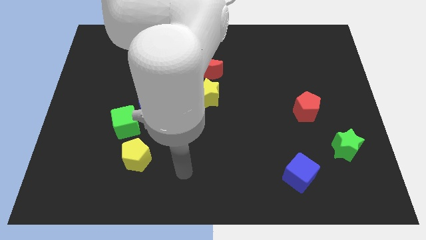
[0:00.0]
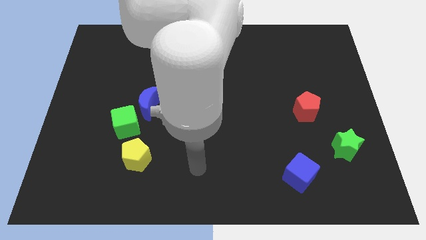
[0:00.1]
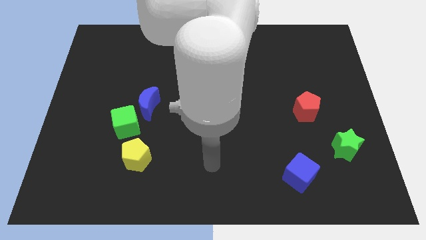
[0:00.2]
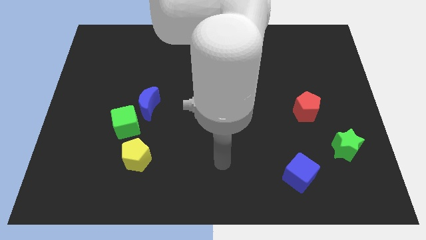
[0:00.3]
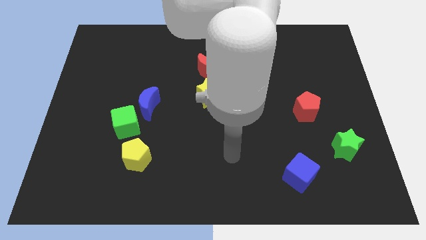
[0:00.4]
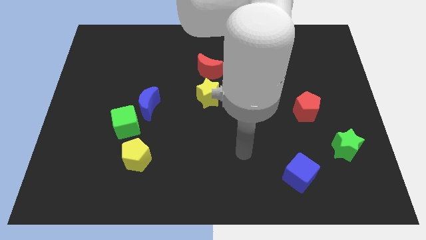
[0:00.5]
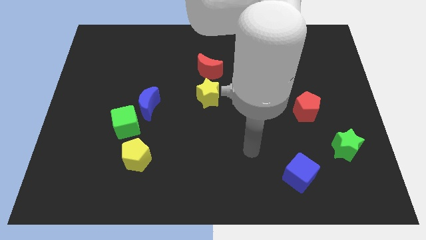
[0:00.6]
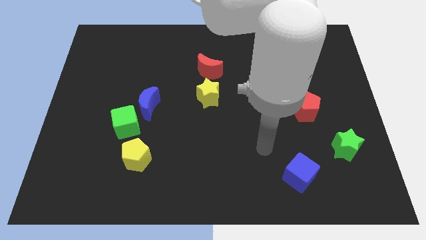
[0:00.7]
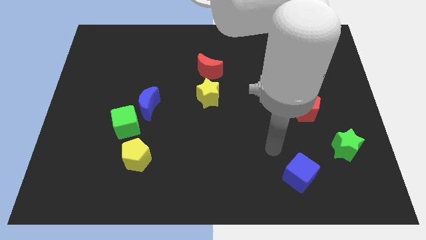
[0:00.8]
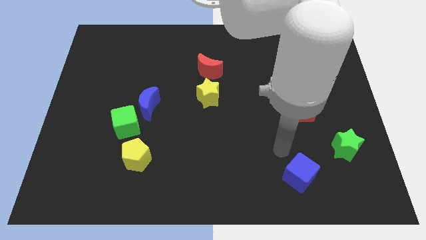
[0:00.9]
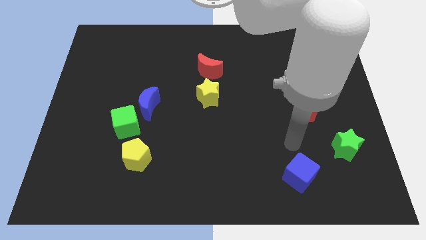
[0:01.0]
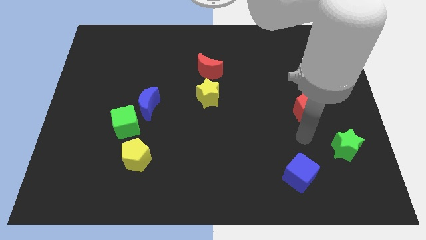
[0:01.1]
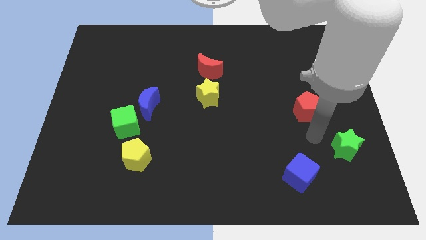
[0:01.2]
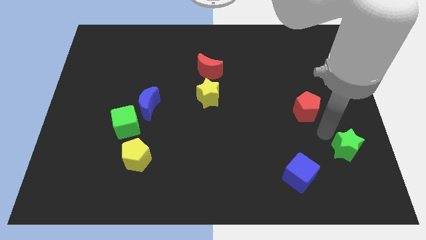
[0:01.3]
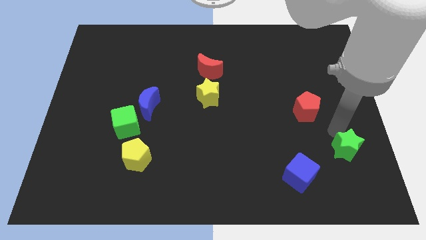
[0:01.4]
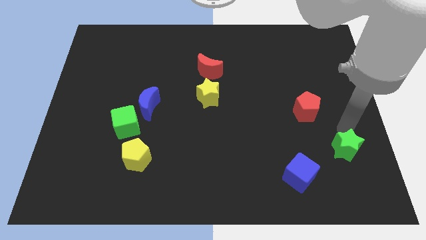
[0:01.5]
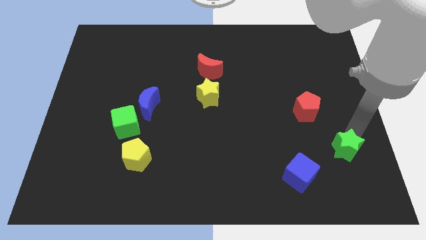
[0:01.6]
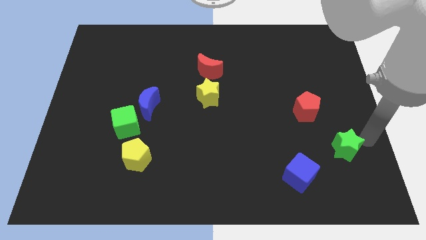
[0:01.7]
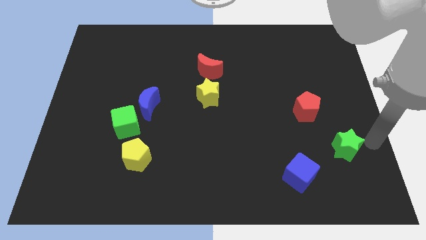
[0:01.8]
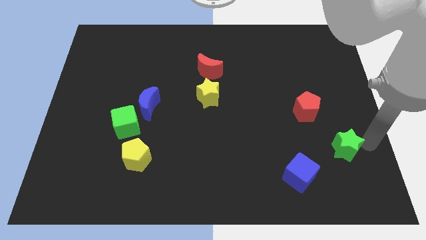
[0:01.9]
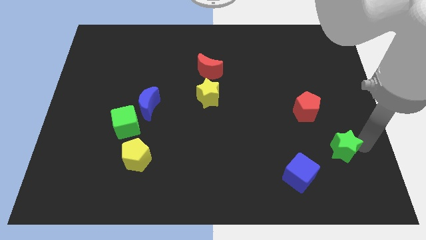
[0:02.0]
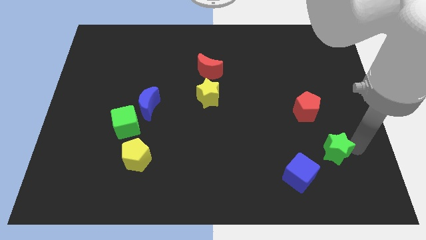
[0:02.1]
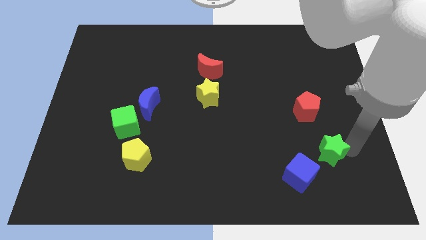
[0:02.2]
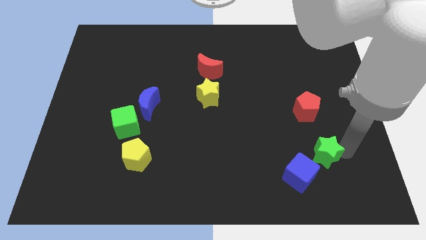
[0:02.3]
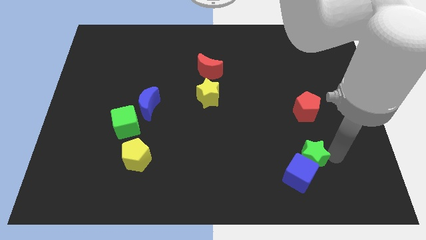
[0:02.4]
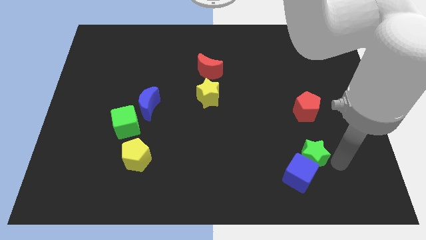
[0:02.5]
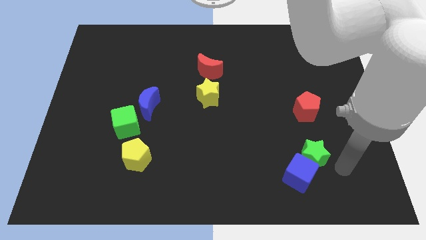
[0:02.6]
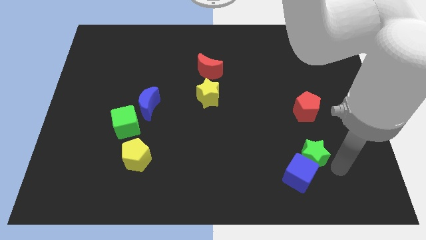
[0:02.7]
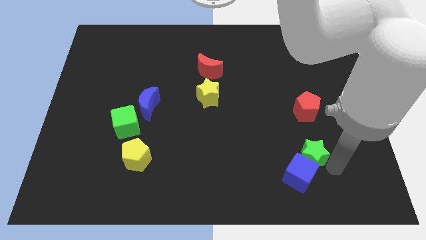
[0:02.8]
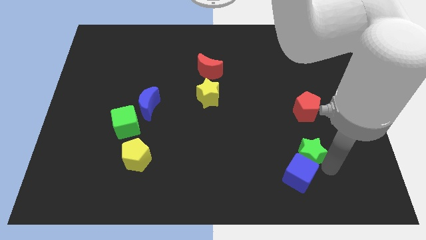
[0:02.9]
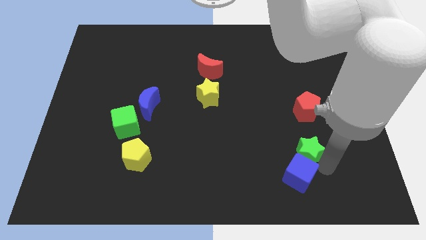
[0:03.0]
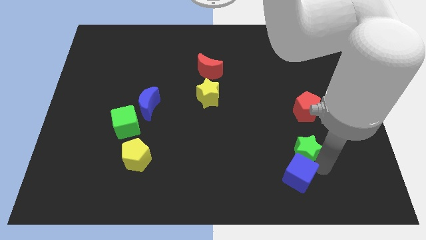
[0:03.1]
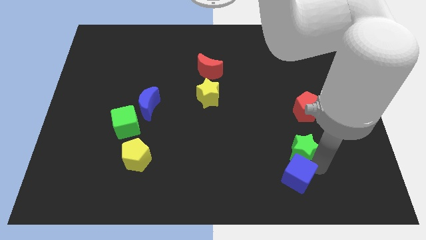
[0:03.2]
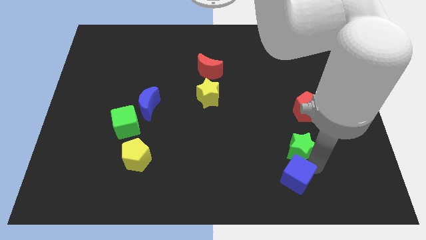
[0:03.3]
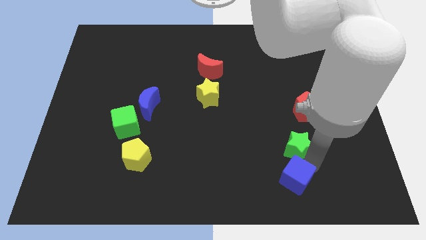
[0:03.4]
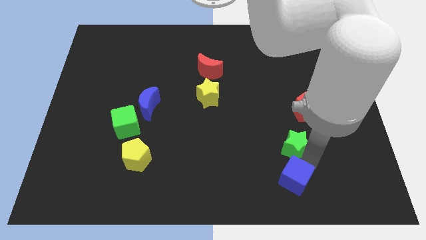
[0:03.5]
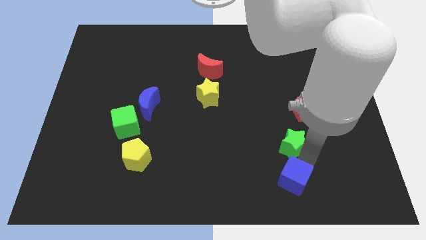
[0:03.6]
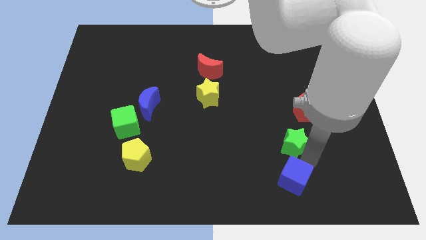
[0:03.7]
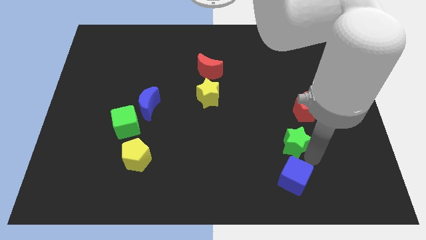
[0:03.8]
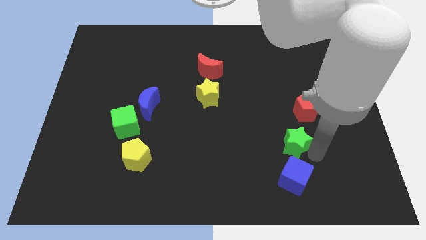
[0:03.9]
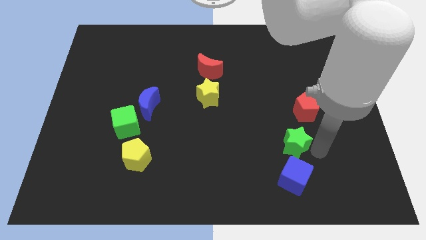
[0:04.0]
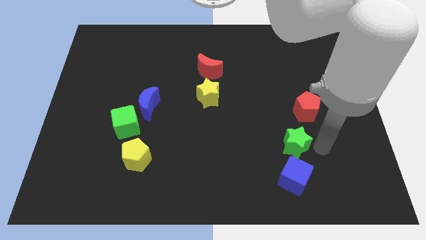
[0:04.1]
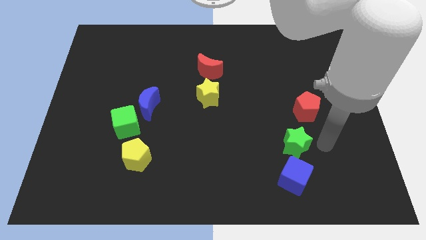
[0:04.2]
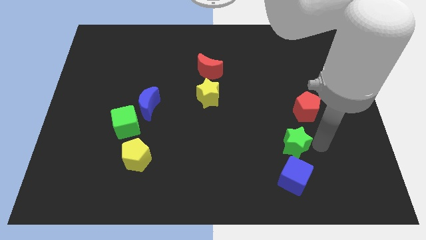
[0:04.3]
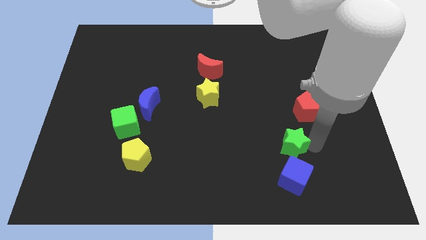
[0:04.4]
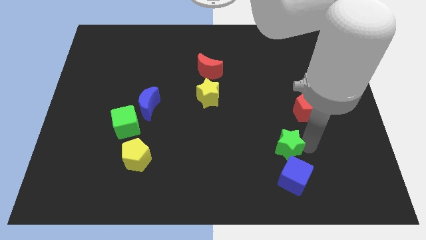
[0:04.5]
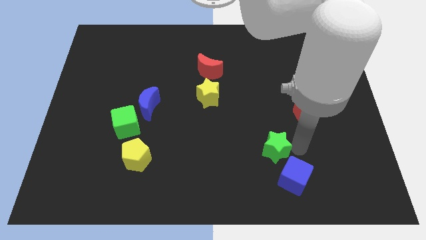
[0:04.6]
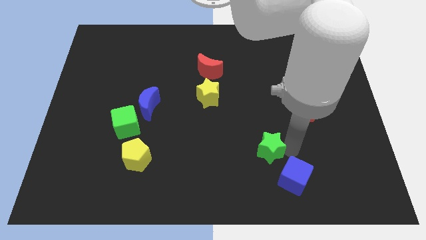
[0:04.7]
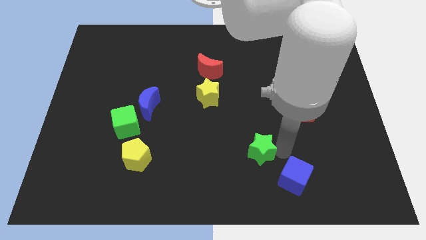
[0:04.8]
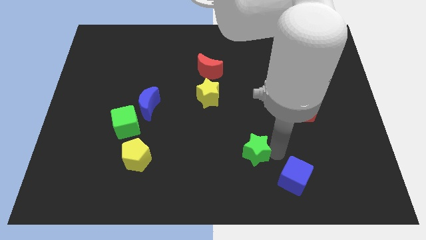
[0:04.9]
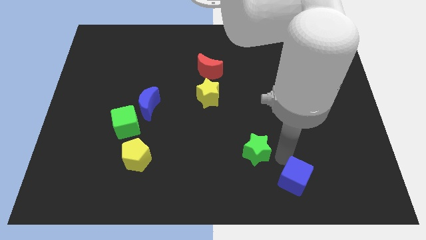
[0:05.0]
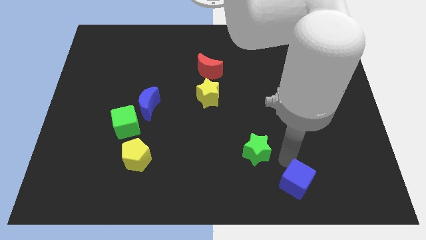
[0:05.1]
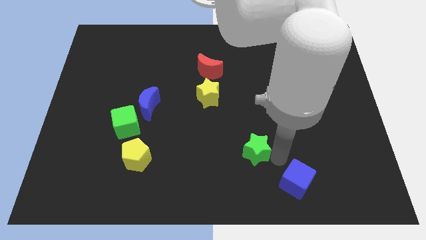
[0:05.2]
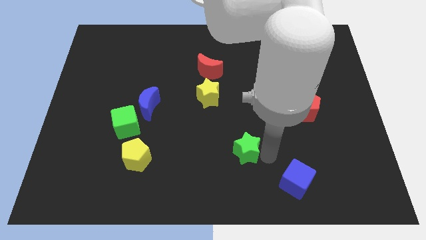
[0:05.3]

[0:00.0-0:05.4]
move the green star left

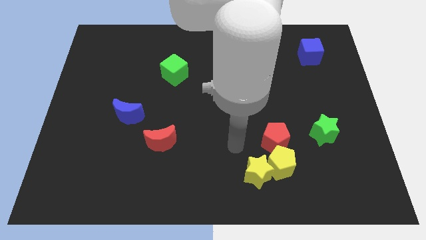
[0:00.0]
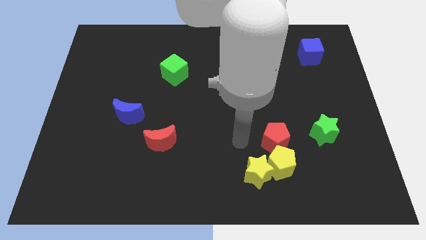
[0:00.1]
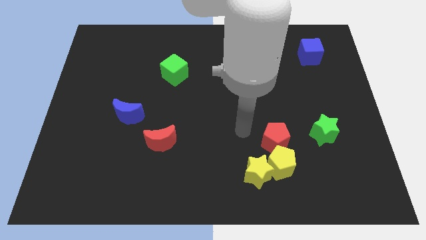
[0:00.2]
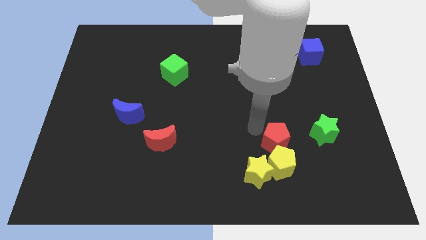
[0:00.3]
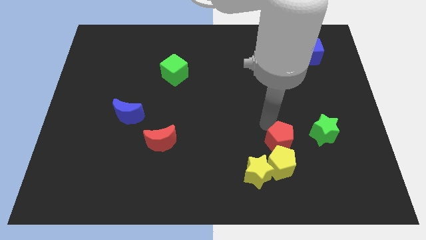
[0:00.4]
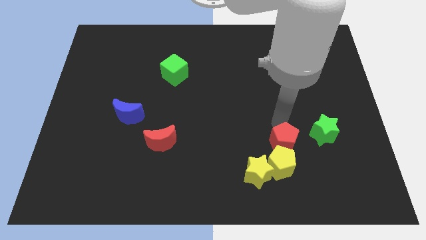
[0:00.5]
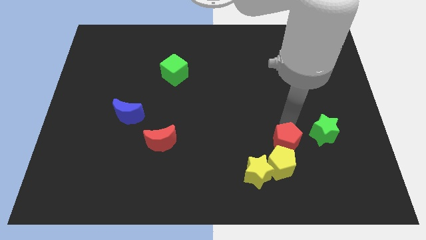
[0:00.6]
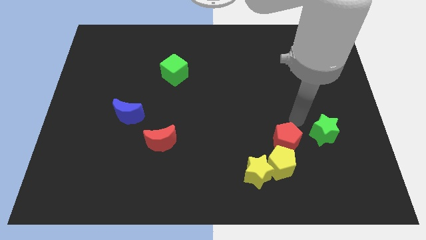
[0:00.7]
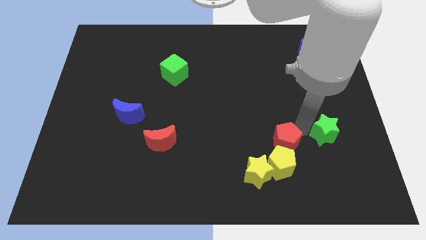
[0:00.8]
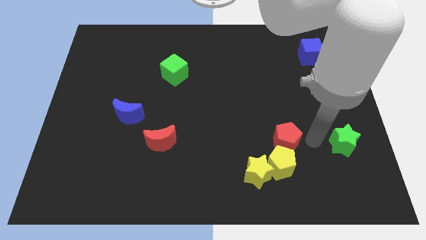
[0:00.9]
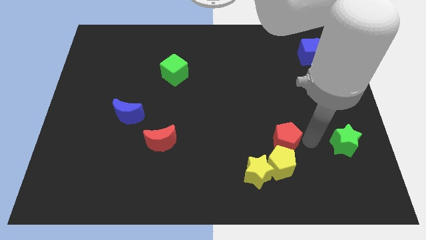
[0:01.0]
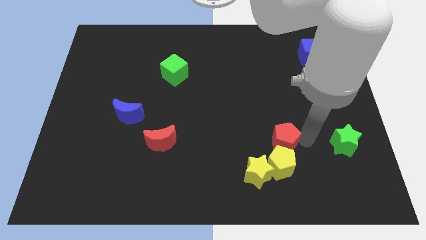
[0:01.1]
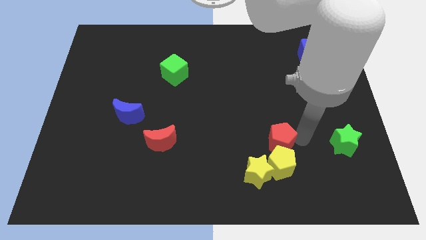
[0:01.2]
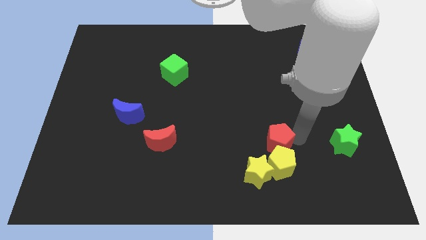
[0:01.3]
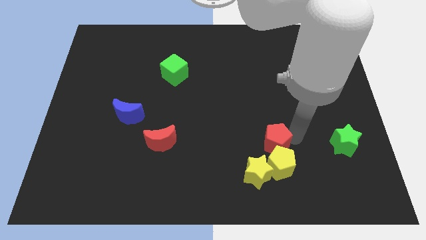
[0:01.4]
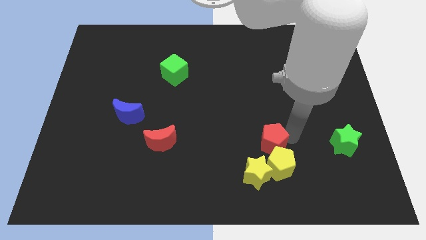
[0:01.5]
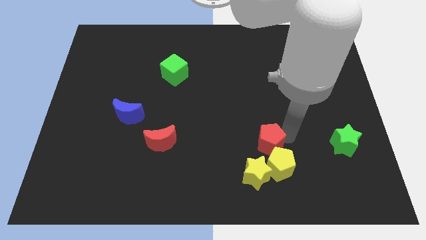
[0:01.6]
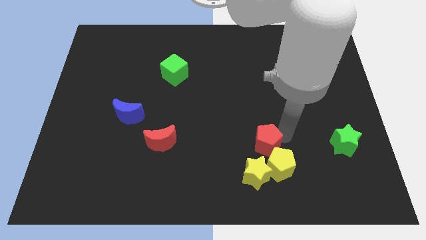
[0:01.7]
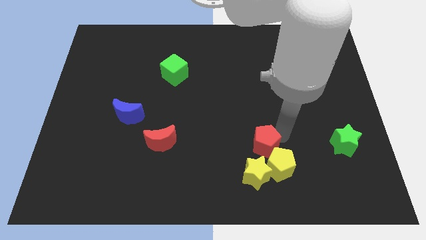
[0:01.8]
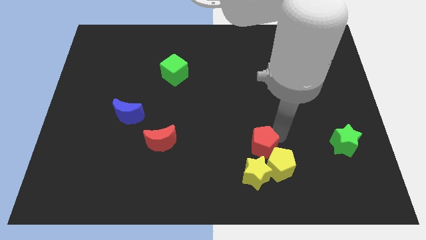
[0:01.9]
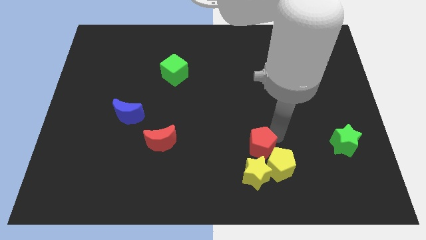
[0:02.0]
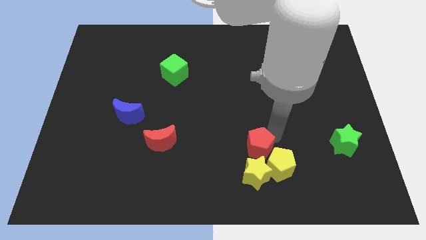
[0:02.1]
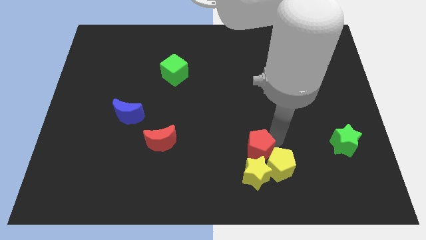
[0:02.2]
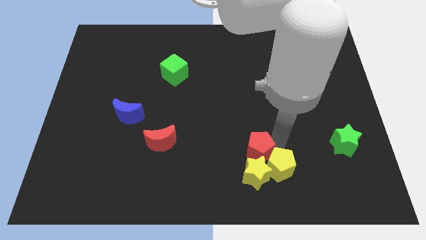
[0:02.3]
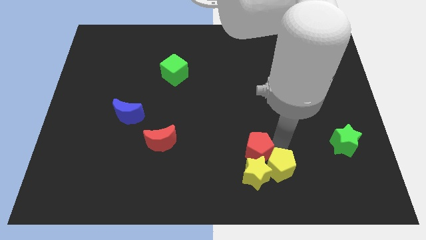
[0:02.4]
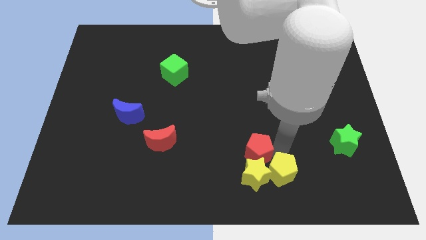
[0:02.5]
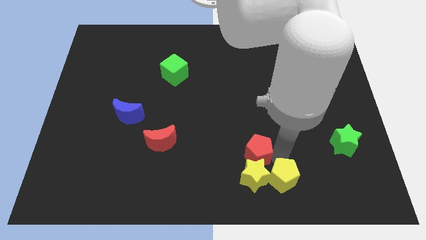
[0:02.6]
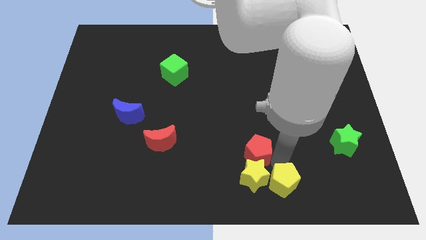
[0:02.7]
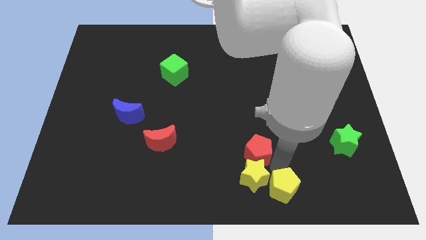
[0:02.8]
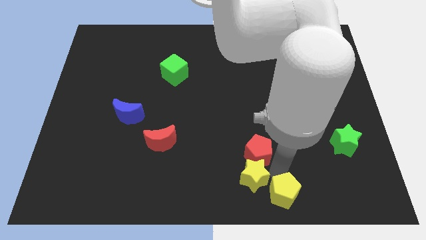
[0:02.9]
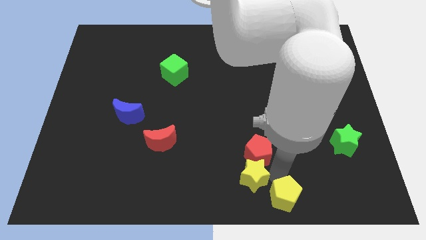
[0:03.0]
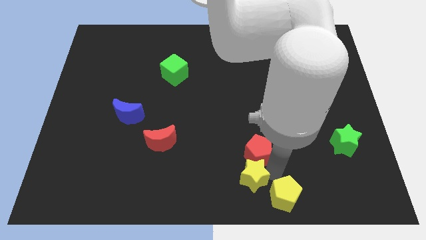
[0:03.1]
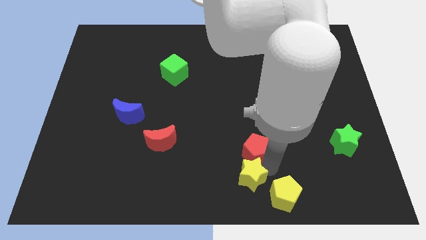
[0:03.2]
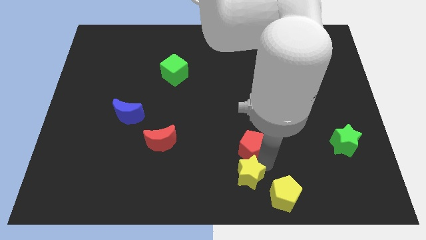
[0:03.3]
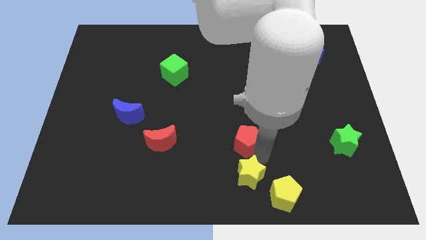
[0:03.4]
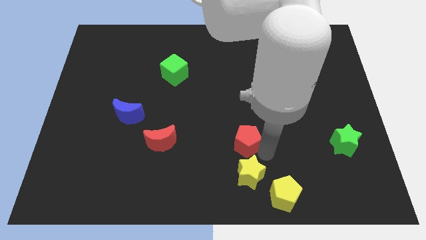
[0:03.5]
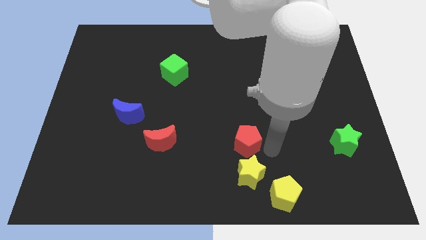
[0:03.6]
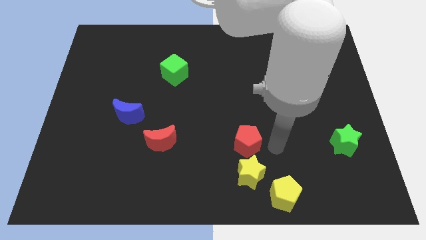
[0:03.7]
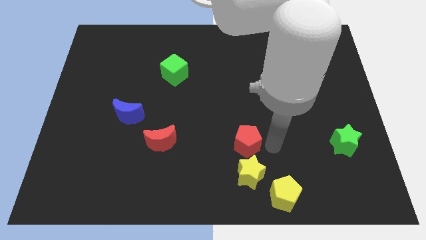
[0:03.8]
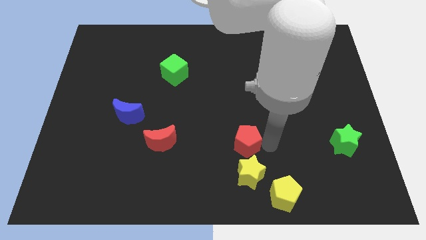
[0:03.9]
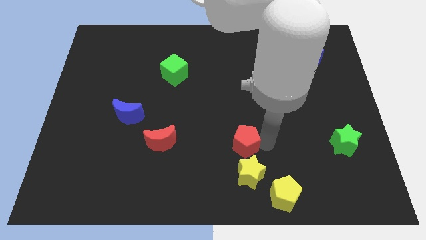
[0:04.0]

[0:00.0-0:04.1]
move the red pentagon a little to the left
